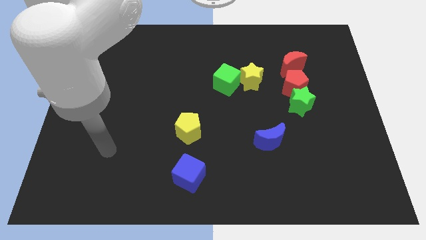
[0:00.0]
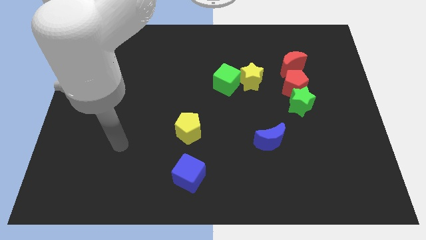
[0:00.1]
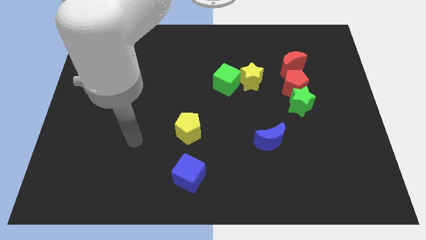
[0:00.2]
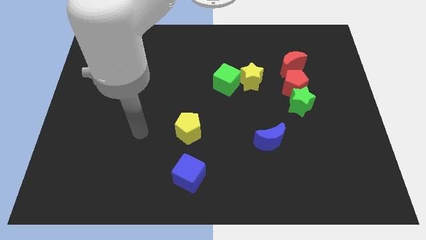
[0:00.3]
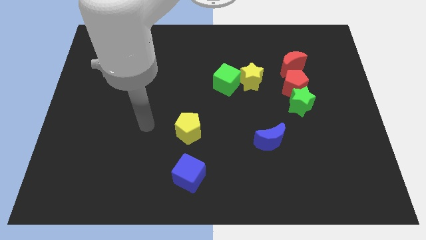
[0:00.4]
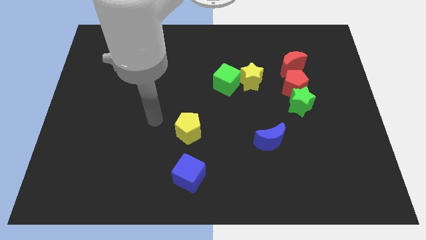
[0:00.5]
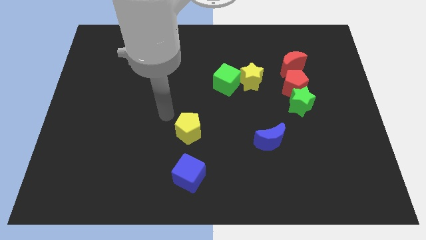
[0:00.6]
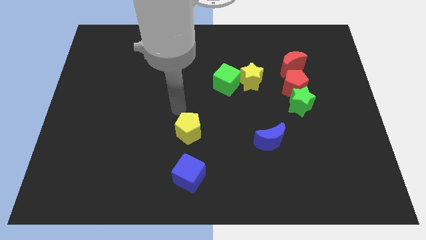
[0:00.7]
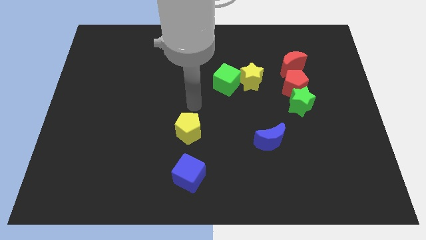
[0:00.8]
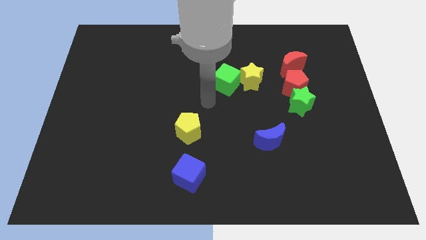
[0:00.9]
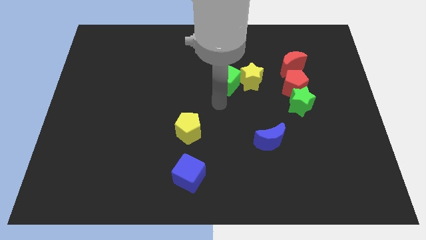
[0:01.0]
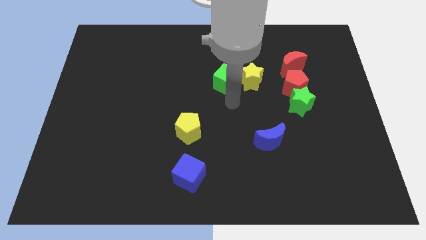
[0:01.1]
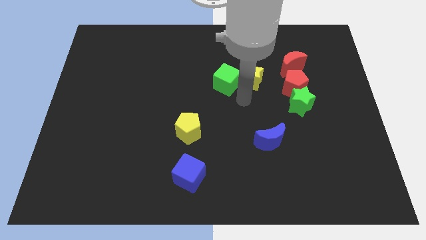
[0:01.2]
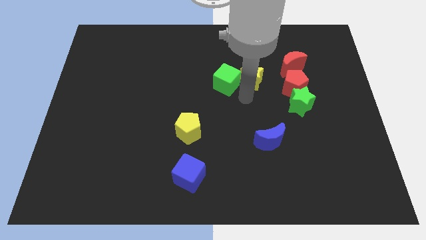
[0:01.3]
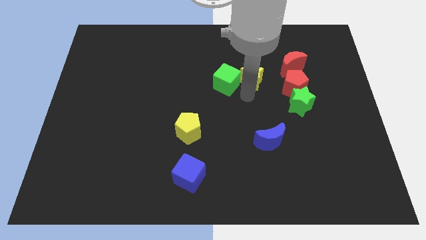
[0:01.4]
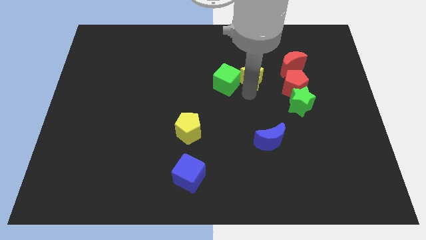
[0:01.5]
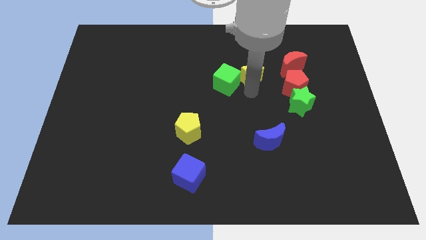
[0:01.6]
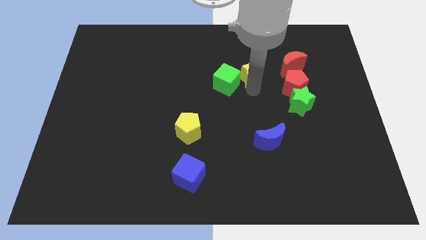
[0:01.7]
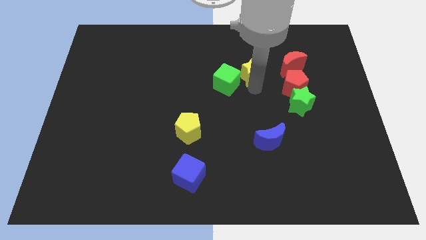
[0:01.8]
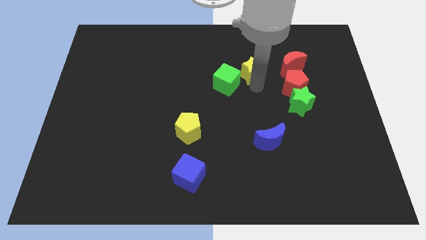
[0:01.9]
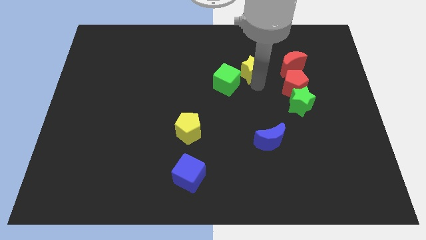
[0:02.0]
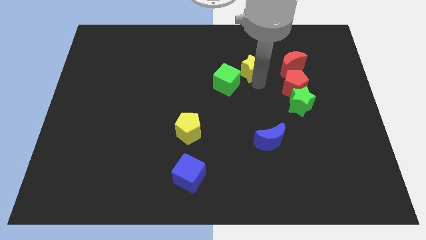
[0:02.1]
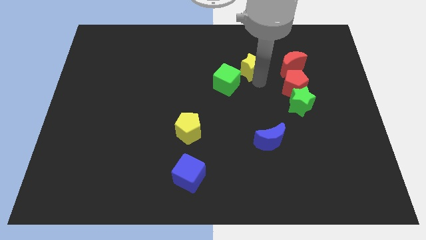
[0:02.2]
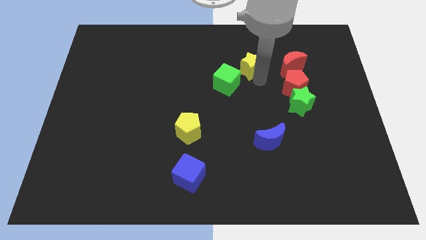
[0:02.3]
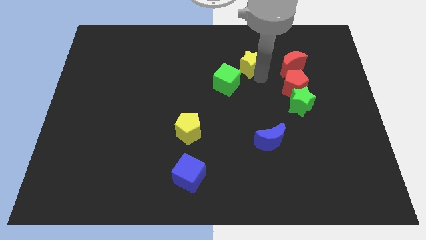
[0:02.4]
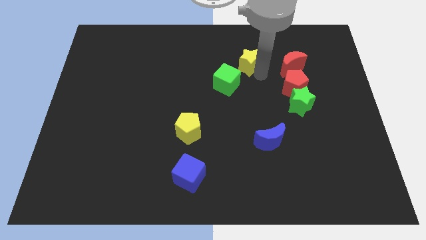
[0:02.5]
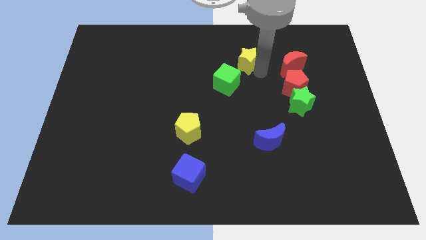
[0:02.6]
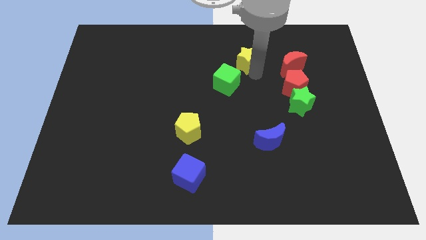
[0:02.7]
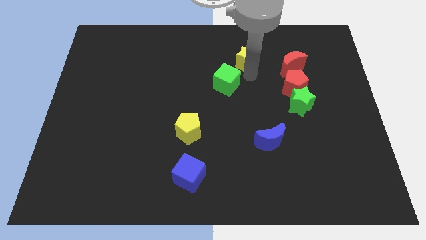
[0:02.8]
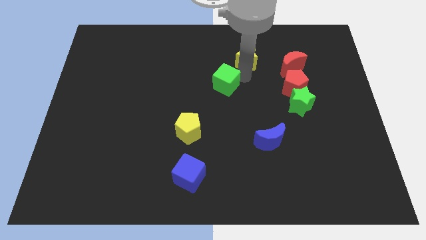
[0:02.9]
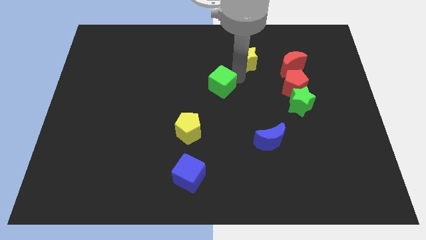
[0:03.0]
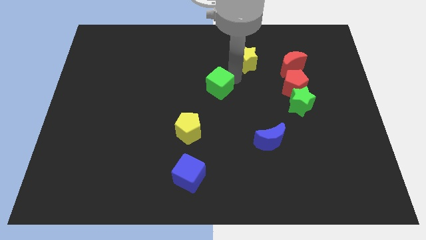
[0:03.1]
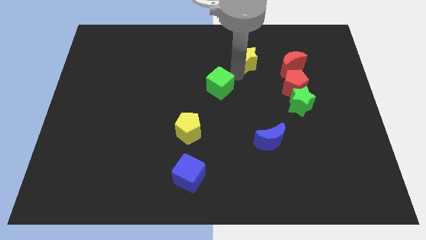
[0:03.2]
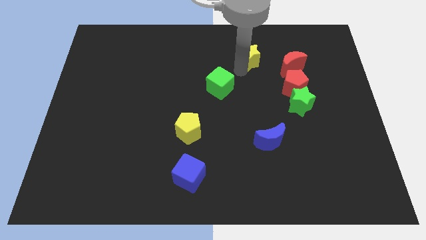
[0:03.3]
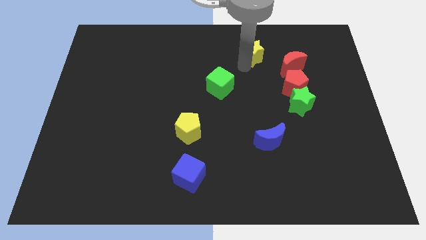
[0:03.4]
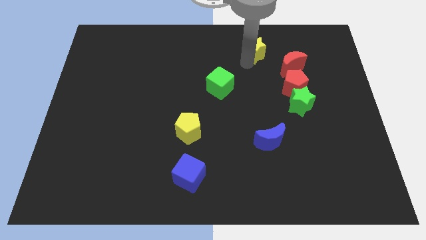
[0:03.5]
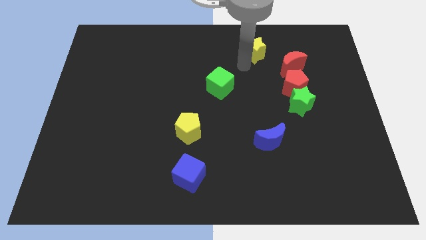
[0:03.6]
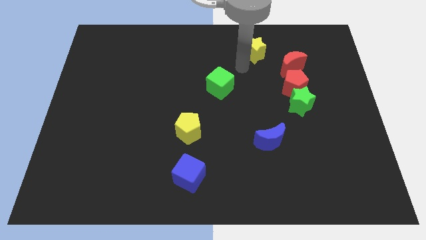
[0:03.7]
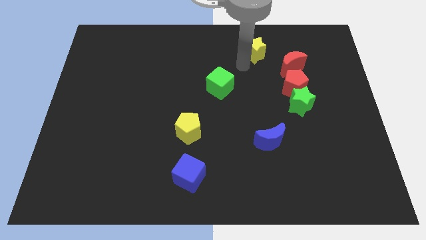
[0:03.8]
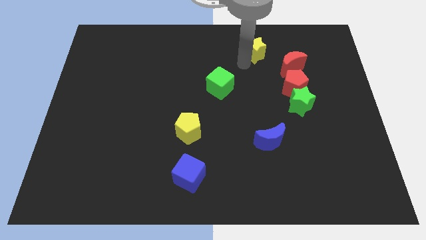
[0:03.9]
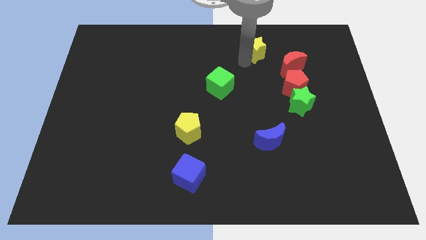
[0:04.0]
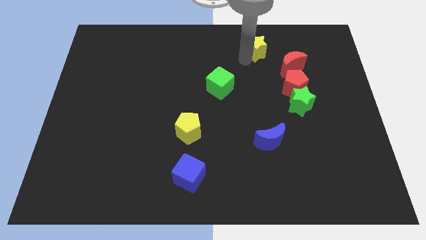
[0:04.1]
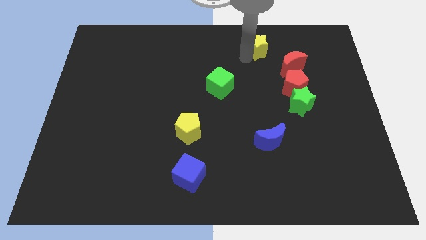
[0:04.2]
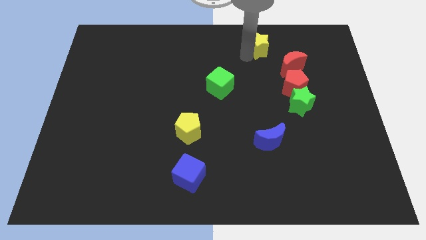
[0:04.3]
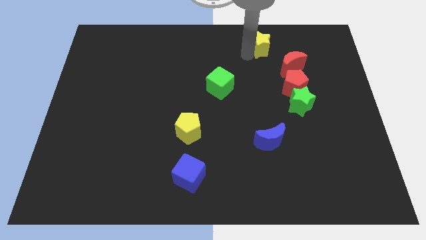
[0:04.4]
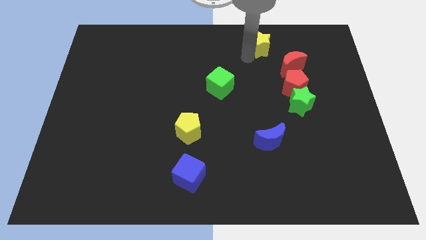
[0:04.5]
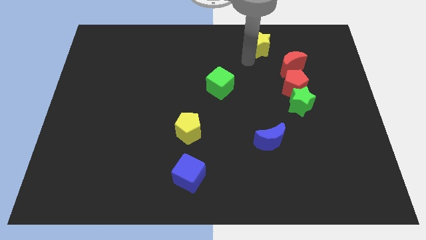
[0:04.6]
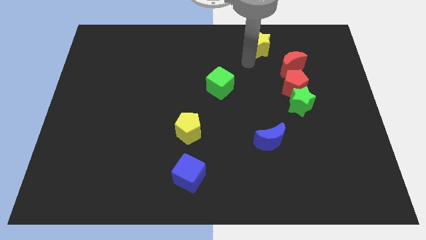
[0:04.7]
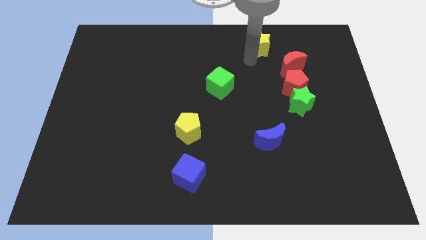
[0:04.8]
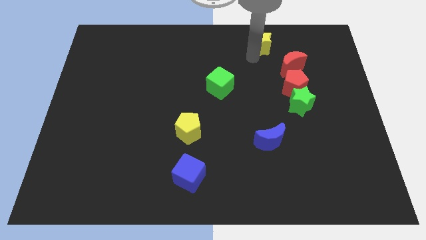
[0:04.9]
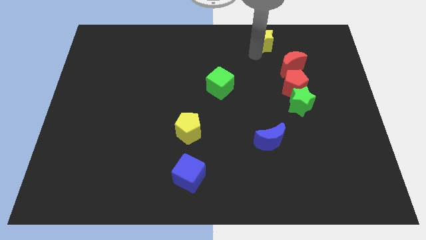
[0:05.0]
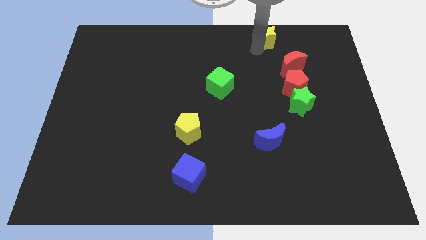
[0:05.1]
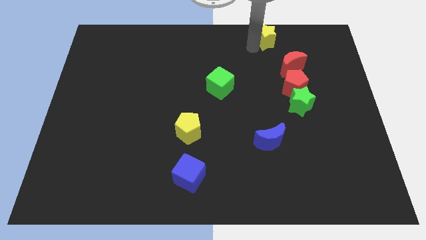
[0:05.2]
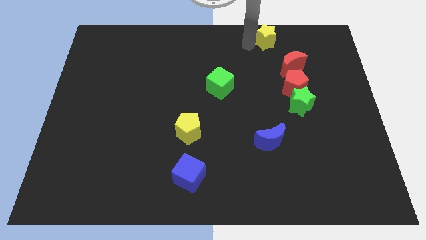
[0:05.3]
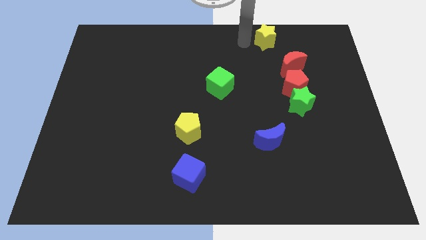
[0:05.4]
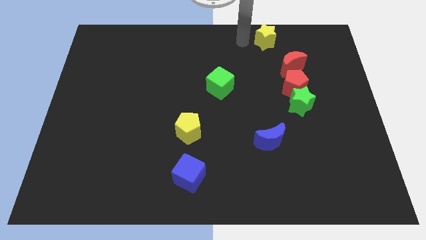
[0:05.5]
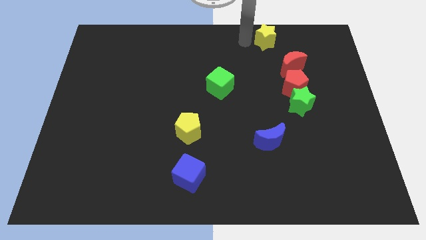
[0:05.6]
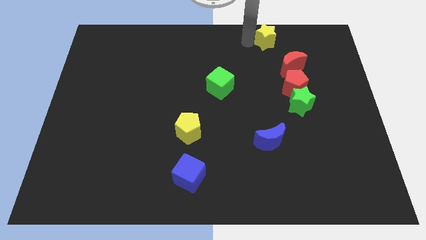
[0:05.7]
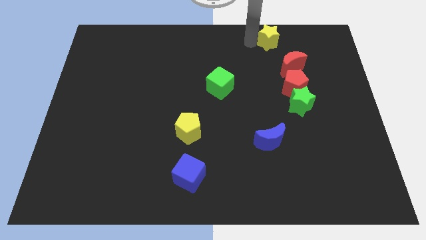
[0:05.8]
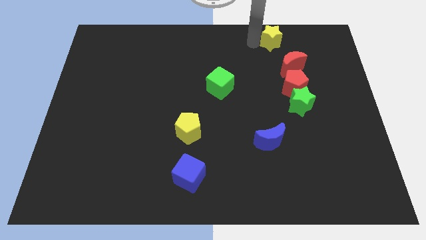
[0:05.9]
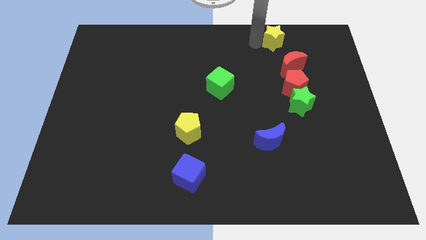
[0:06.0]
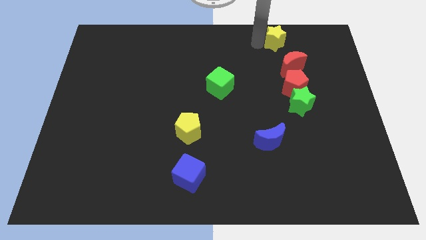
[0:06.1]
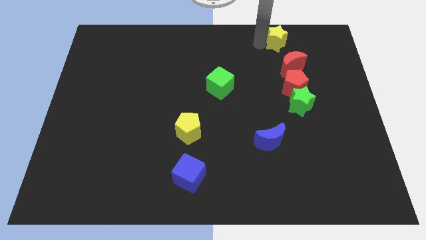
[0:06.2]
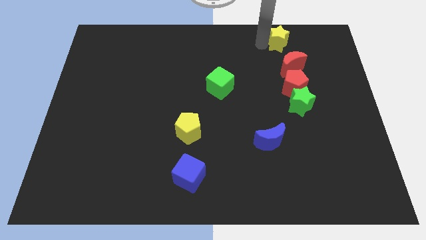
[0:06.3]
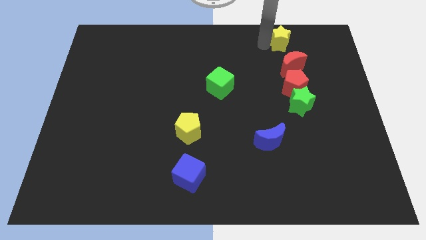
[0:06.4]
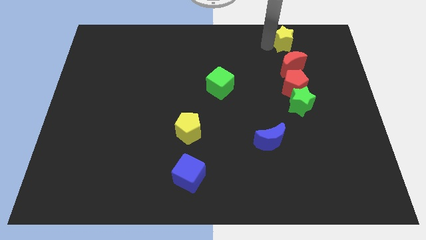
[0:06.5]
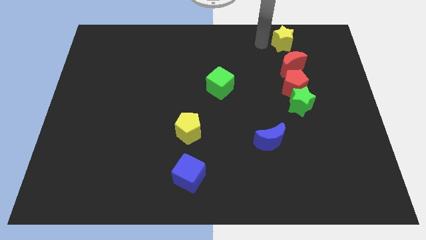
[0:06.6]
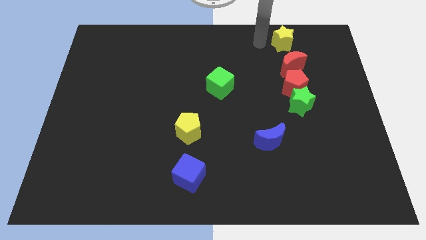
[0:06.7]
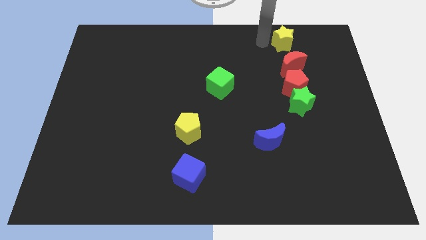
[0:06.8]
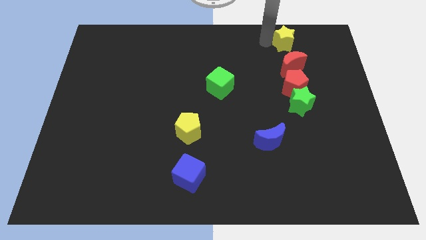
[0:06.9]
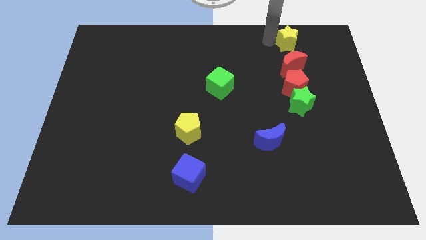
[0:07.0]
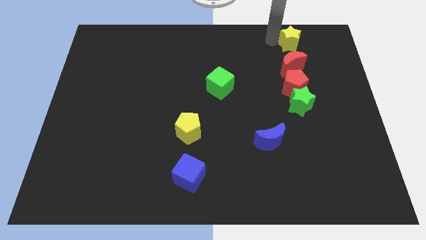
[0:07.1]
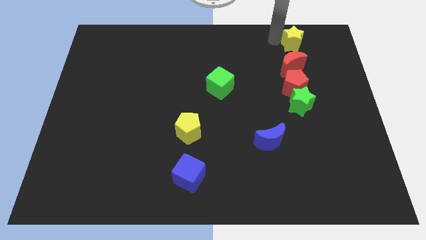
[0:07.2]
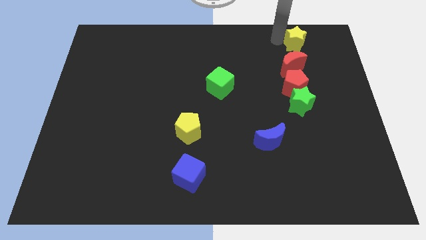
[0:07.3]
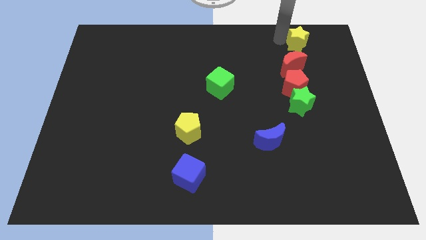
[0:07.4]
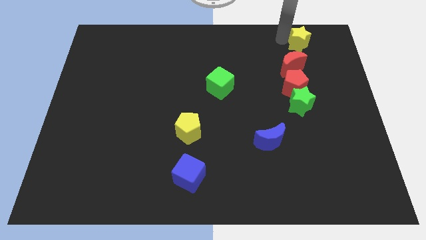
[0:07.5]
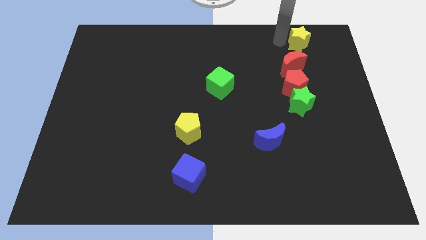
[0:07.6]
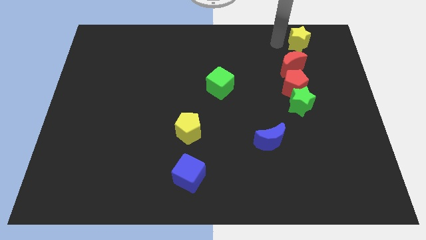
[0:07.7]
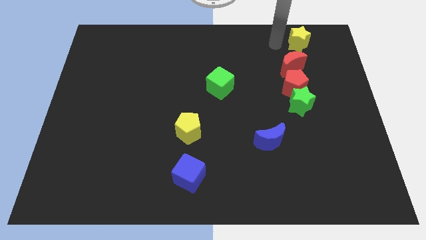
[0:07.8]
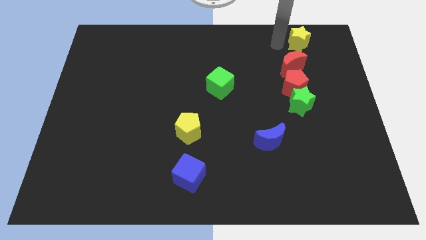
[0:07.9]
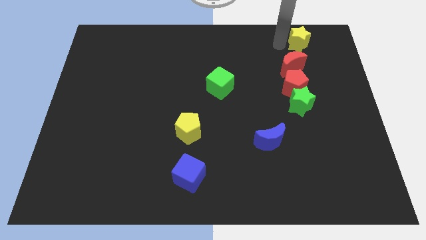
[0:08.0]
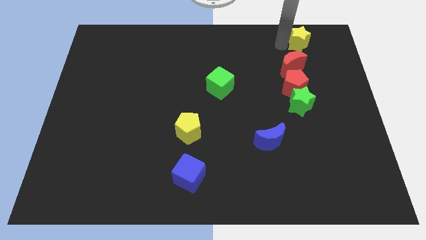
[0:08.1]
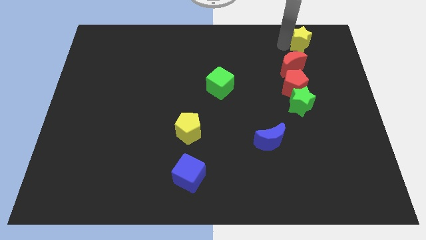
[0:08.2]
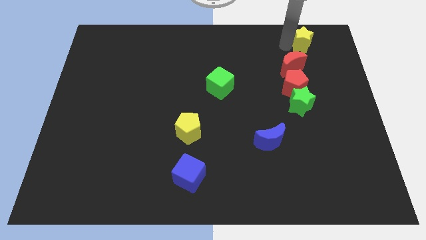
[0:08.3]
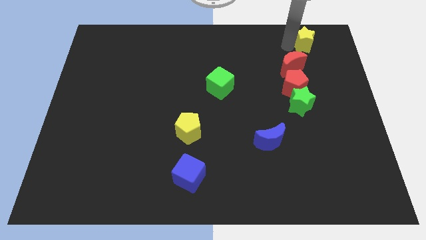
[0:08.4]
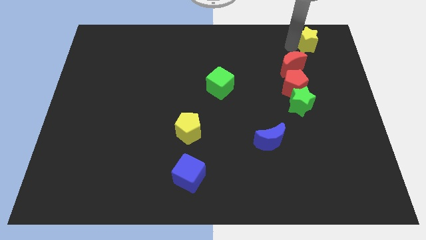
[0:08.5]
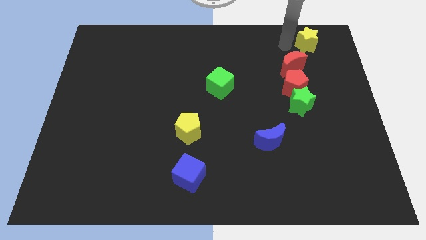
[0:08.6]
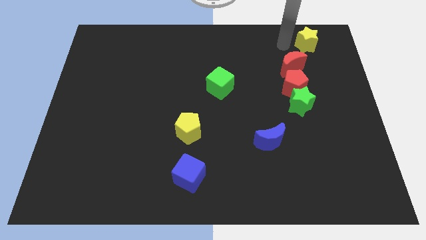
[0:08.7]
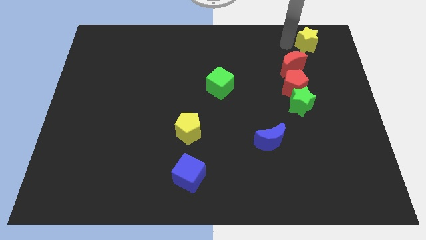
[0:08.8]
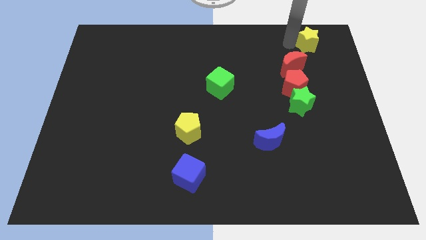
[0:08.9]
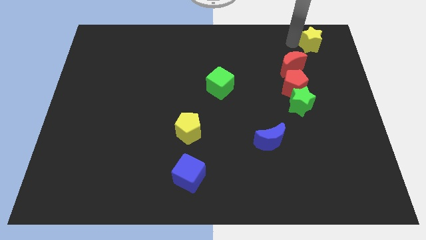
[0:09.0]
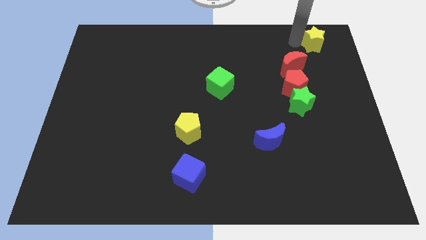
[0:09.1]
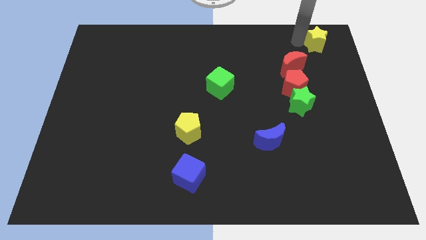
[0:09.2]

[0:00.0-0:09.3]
move the yellow star to the top right
